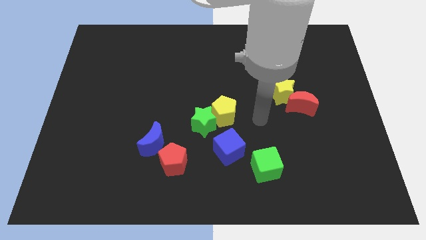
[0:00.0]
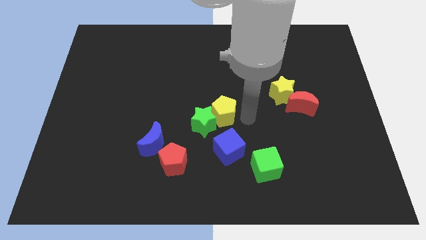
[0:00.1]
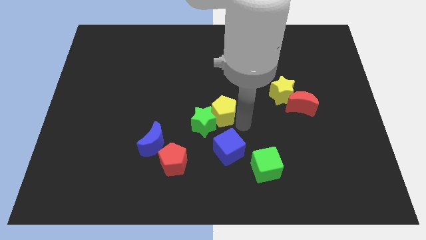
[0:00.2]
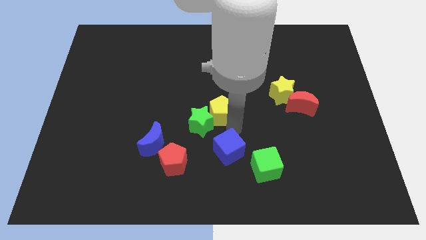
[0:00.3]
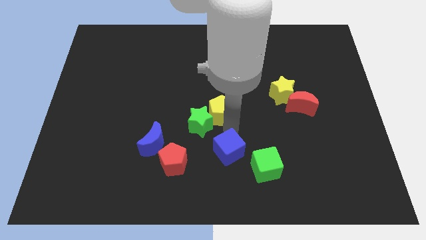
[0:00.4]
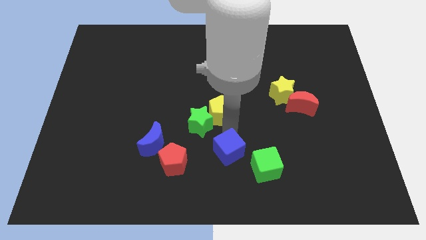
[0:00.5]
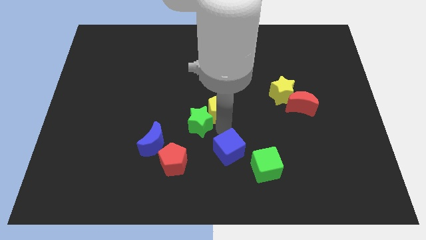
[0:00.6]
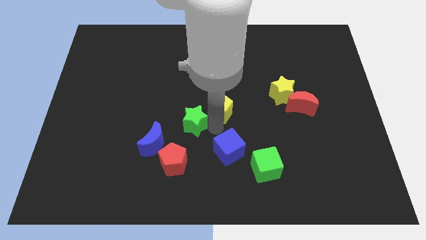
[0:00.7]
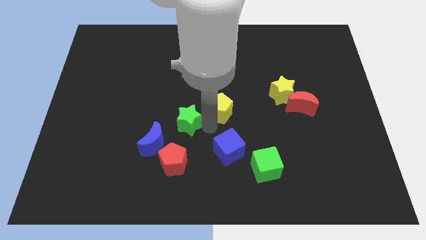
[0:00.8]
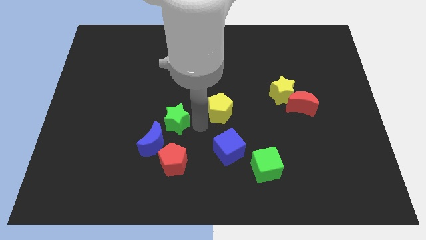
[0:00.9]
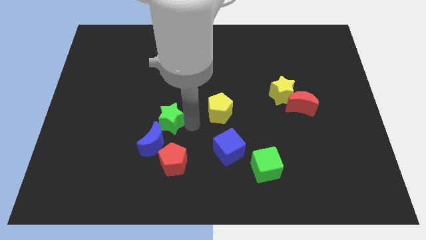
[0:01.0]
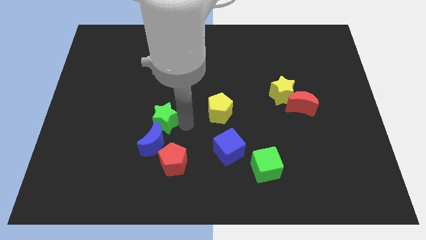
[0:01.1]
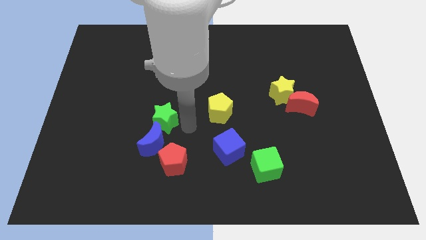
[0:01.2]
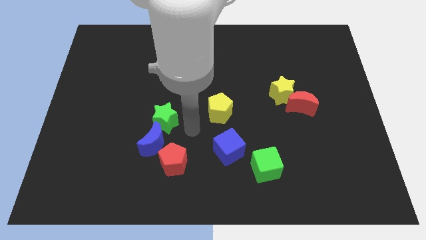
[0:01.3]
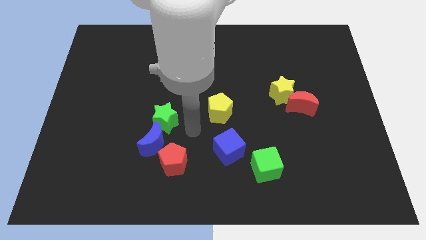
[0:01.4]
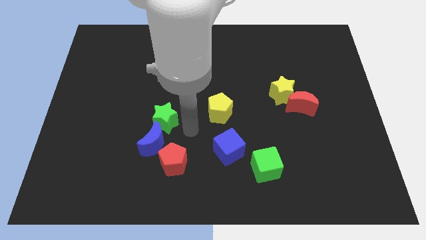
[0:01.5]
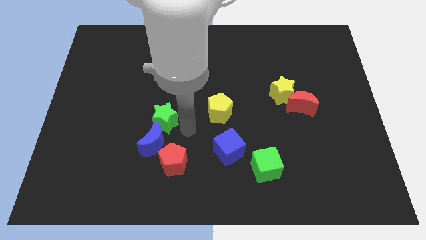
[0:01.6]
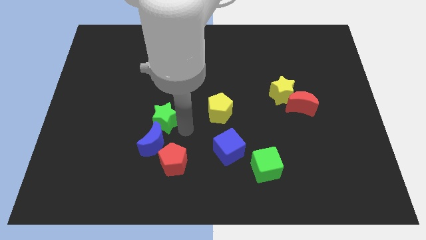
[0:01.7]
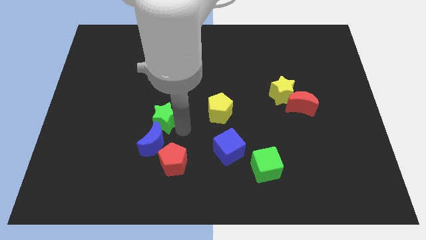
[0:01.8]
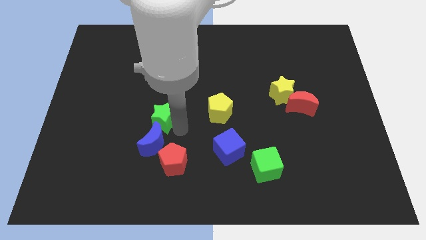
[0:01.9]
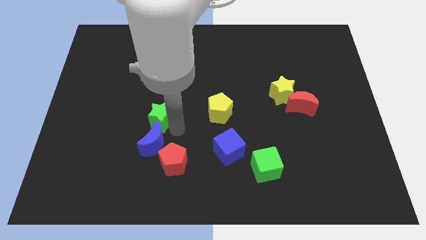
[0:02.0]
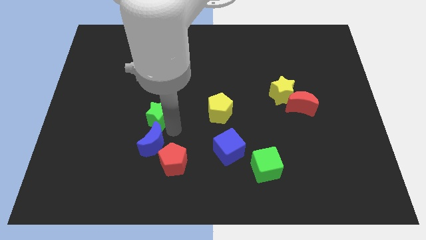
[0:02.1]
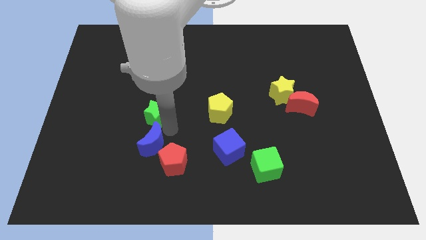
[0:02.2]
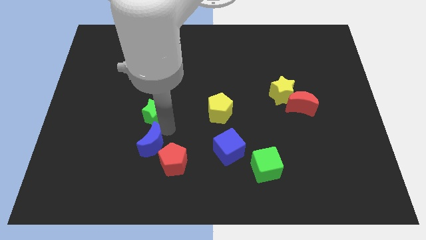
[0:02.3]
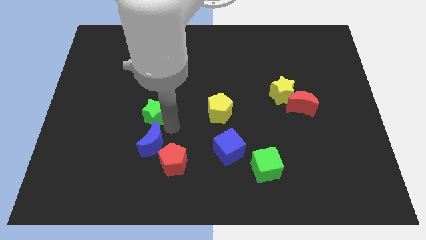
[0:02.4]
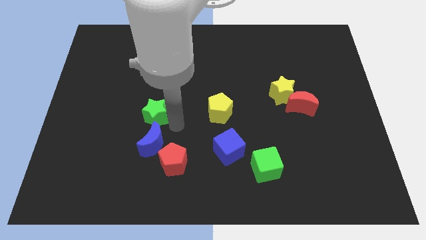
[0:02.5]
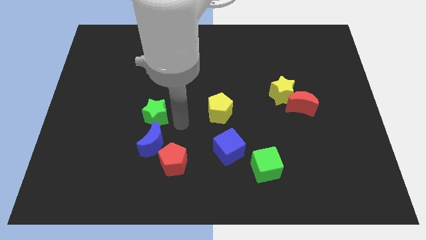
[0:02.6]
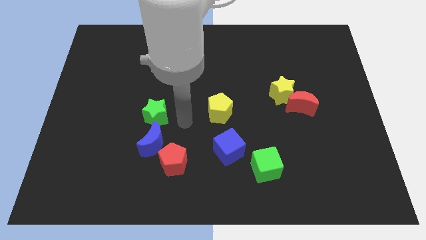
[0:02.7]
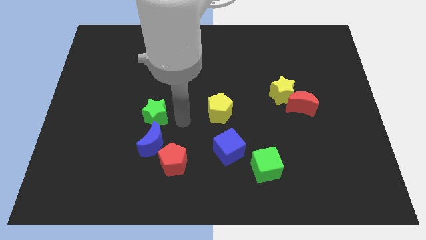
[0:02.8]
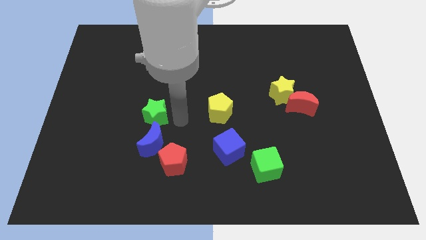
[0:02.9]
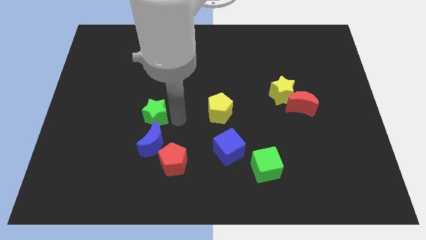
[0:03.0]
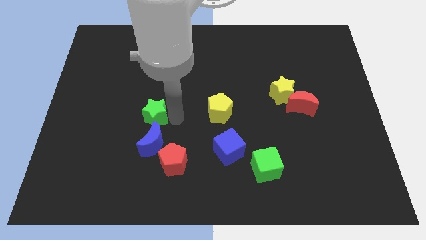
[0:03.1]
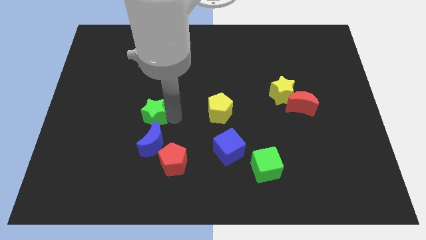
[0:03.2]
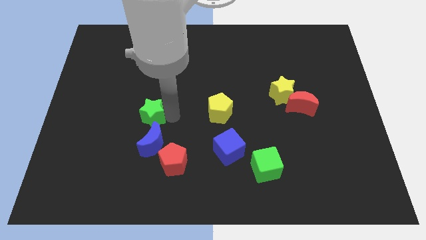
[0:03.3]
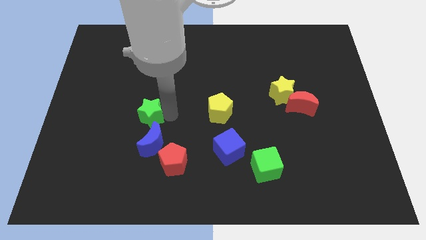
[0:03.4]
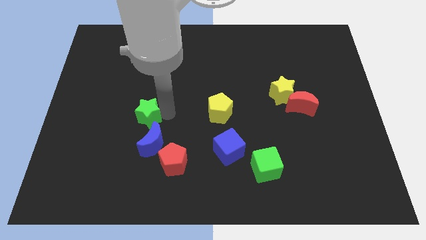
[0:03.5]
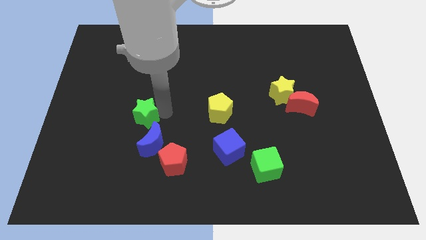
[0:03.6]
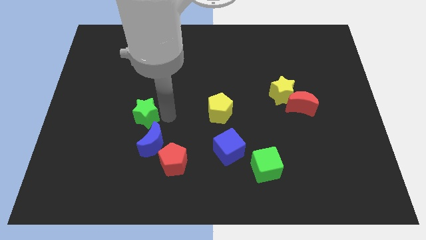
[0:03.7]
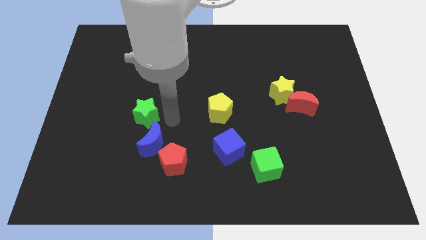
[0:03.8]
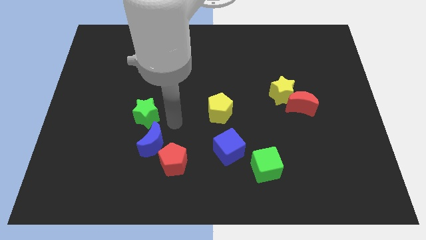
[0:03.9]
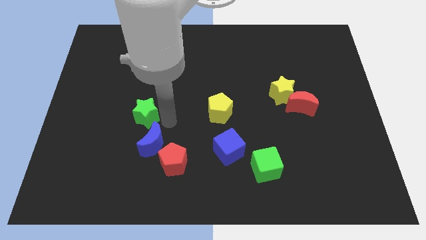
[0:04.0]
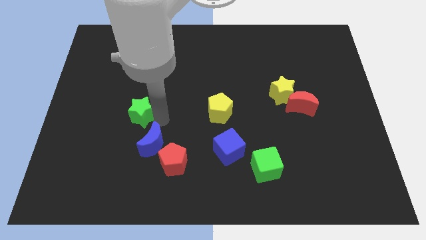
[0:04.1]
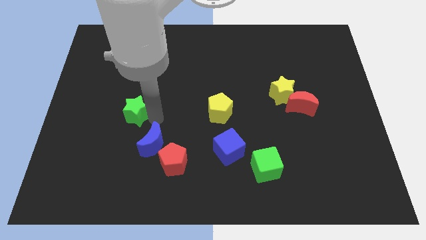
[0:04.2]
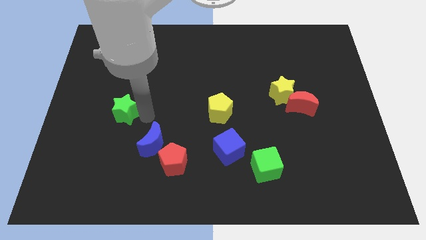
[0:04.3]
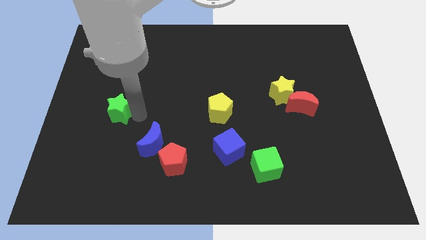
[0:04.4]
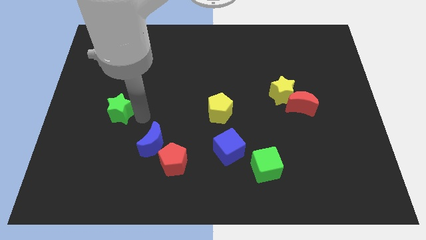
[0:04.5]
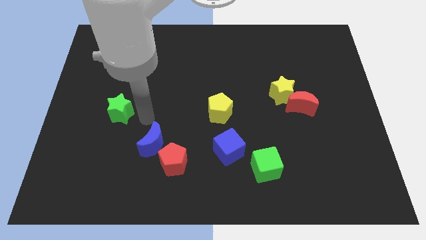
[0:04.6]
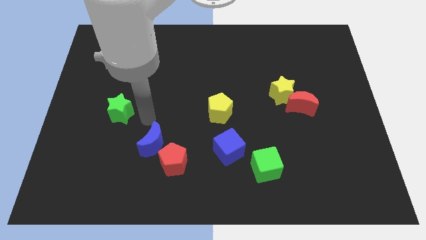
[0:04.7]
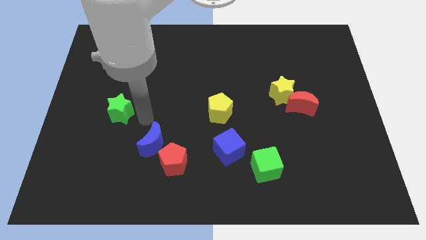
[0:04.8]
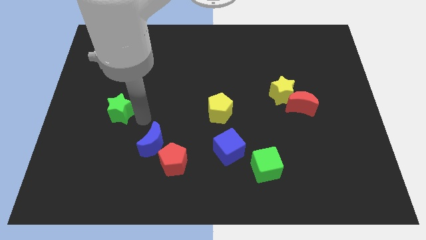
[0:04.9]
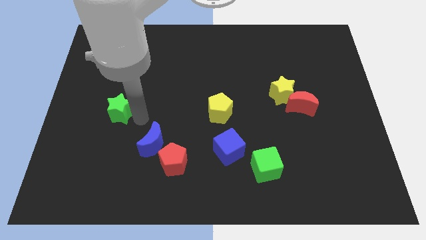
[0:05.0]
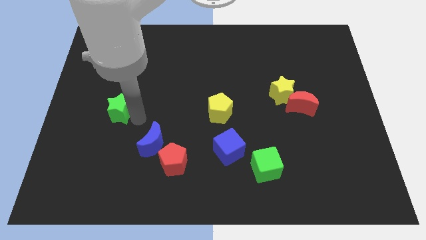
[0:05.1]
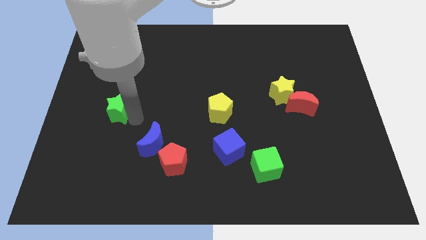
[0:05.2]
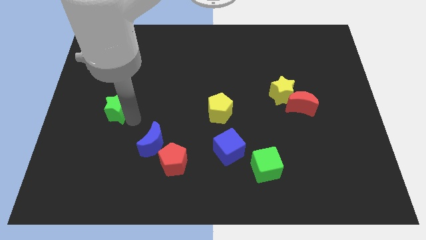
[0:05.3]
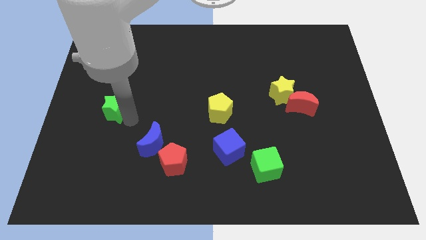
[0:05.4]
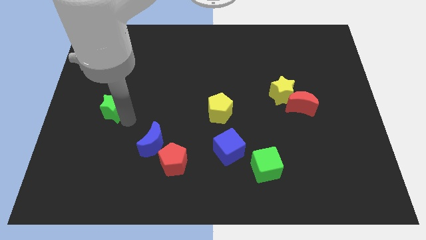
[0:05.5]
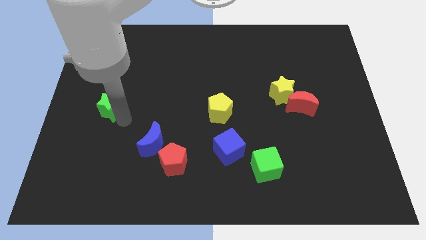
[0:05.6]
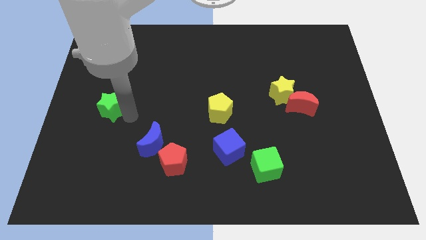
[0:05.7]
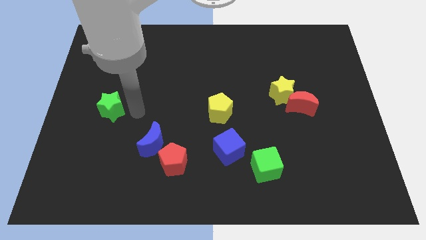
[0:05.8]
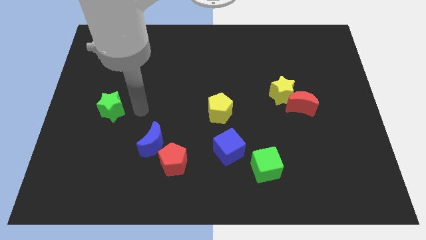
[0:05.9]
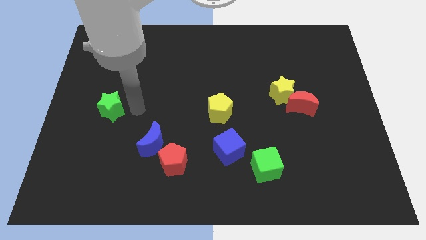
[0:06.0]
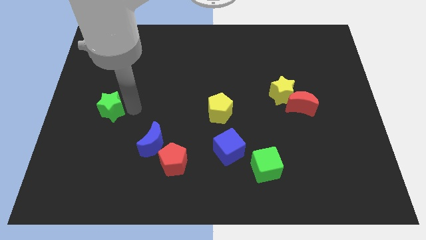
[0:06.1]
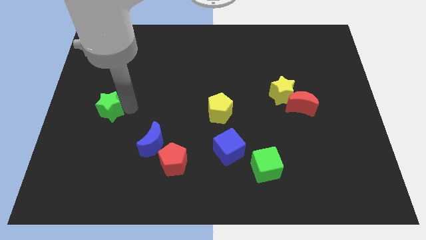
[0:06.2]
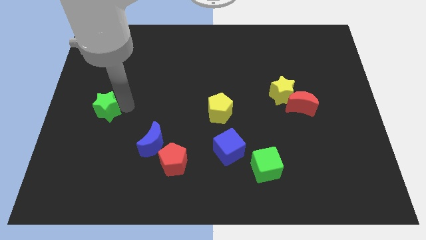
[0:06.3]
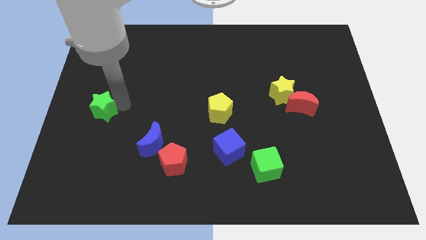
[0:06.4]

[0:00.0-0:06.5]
slide the green star to the center left
